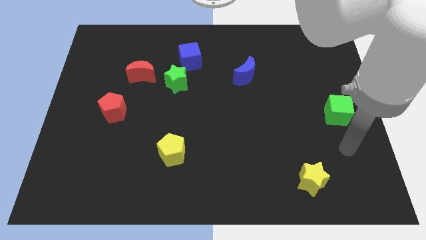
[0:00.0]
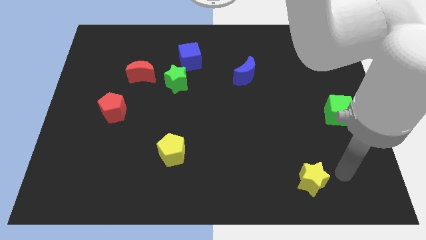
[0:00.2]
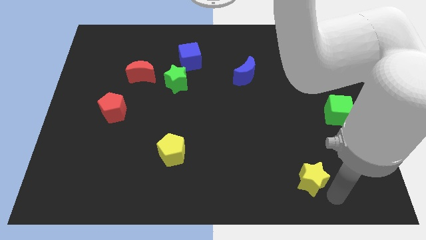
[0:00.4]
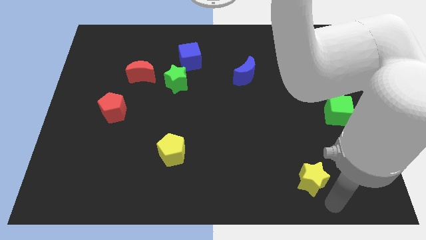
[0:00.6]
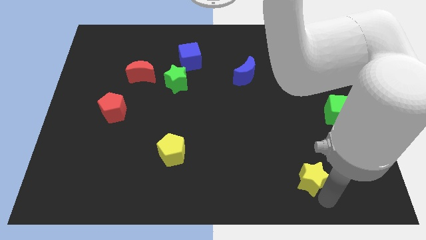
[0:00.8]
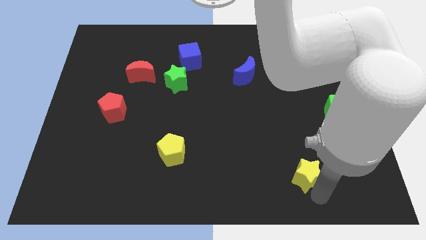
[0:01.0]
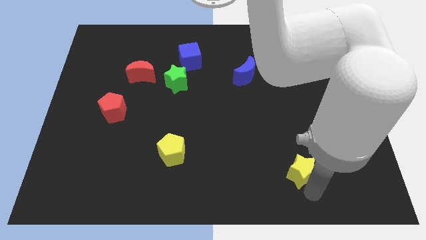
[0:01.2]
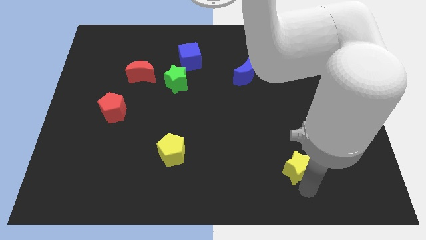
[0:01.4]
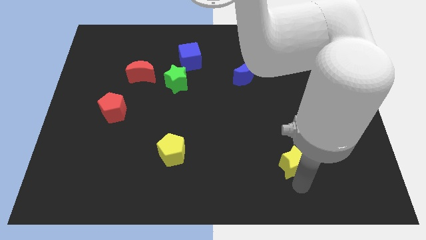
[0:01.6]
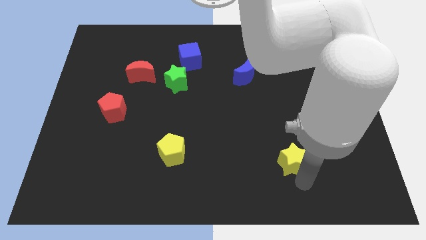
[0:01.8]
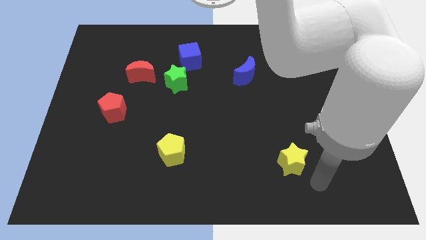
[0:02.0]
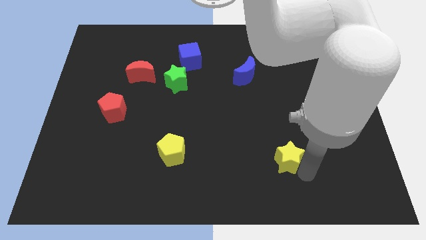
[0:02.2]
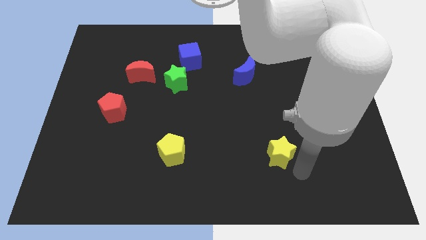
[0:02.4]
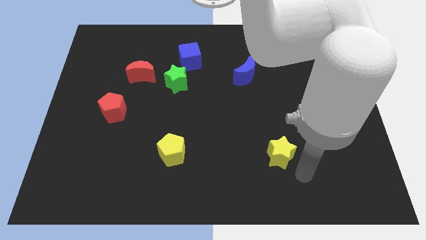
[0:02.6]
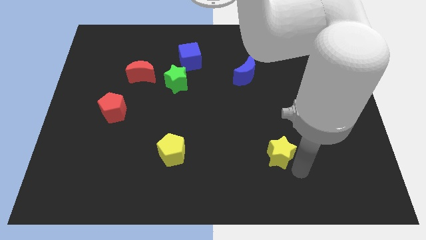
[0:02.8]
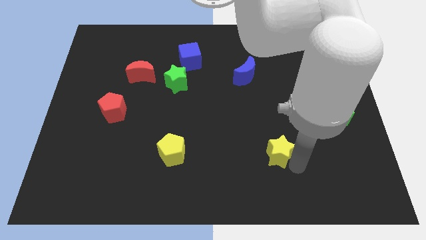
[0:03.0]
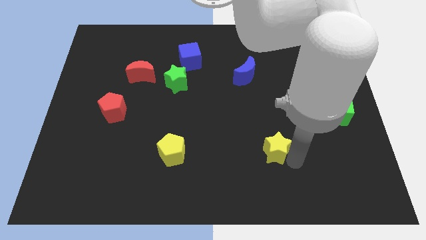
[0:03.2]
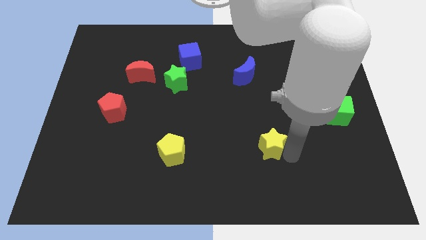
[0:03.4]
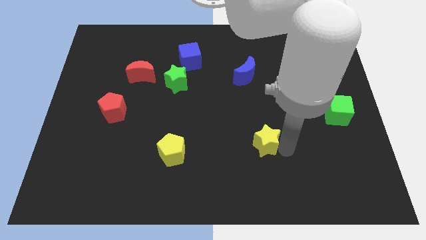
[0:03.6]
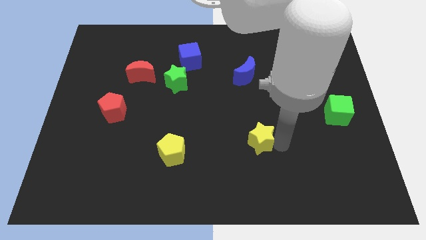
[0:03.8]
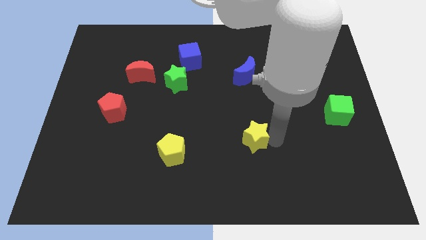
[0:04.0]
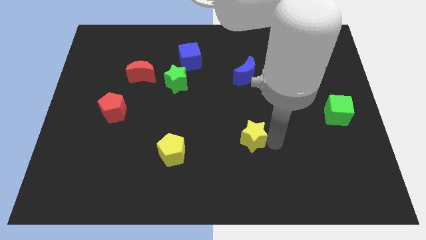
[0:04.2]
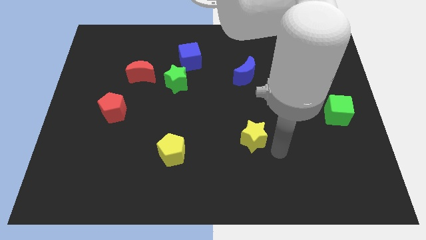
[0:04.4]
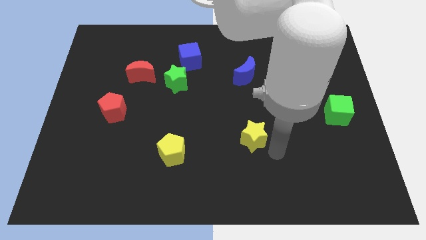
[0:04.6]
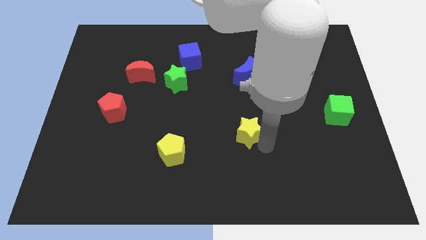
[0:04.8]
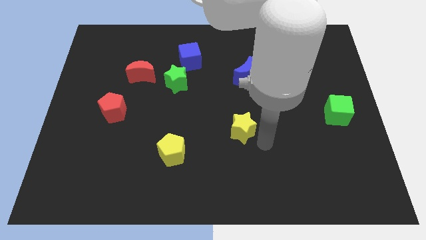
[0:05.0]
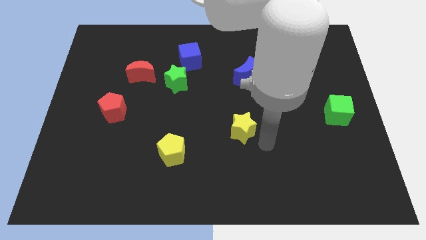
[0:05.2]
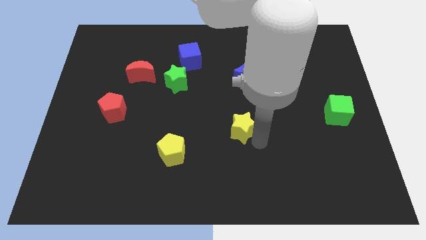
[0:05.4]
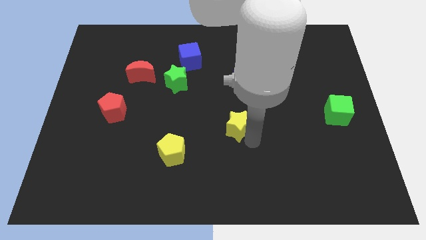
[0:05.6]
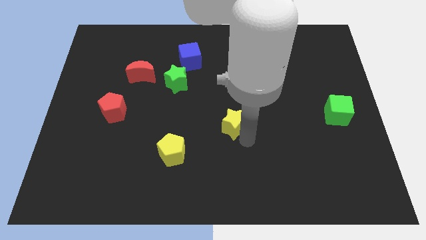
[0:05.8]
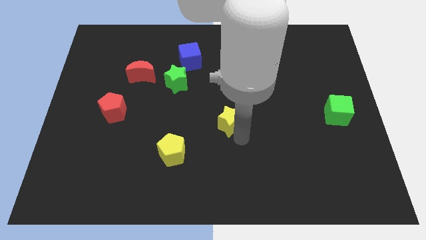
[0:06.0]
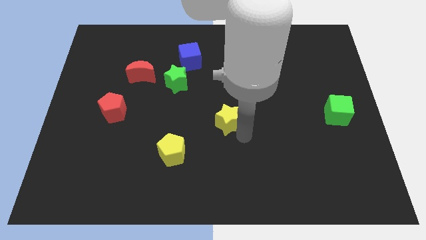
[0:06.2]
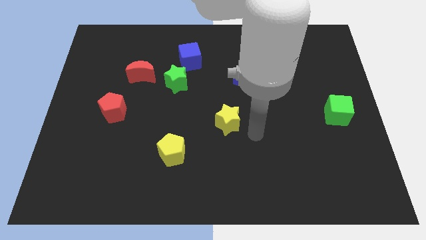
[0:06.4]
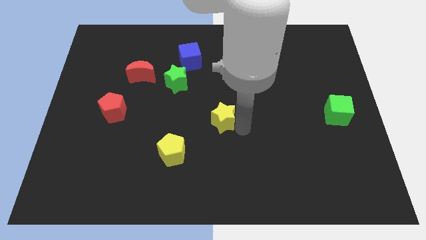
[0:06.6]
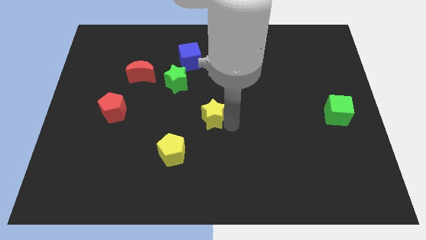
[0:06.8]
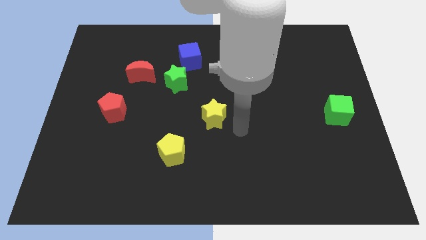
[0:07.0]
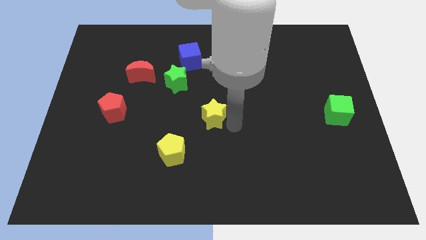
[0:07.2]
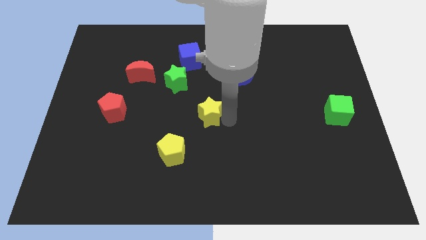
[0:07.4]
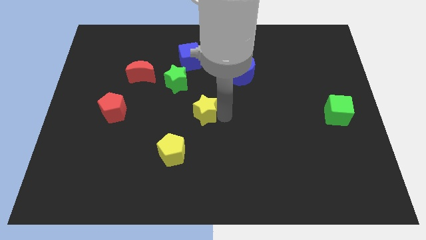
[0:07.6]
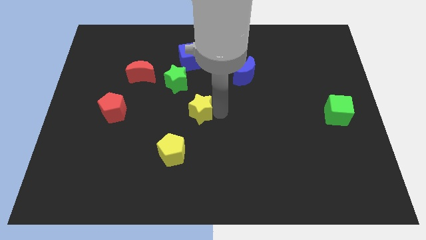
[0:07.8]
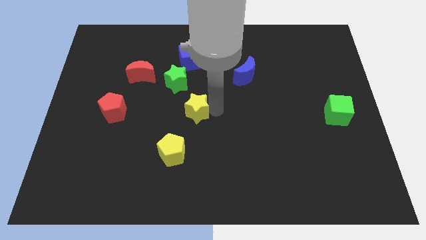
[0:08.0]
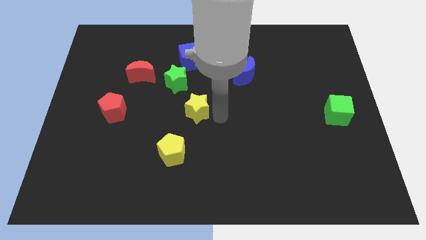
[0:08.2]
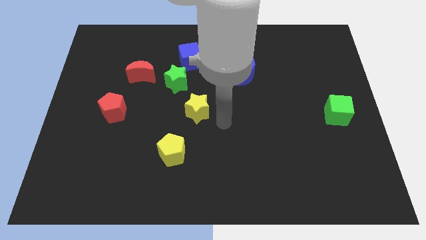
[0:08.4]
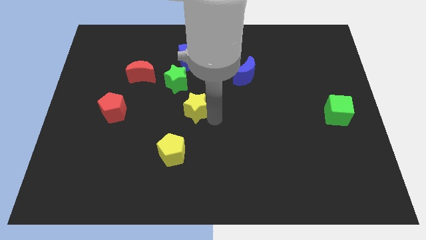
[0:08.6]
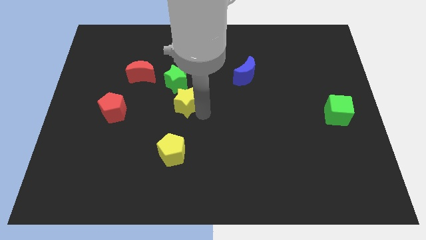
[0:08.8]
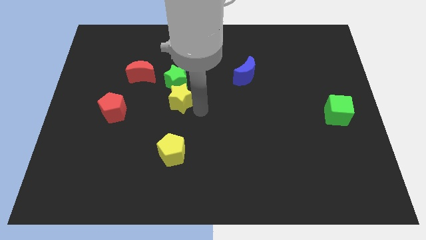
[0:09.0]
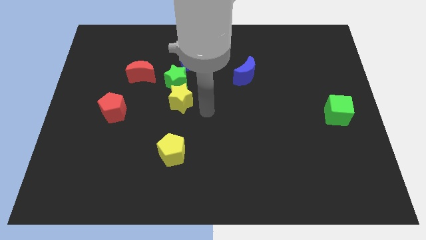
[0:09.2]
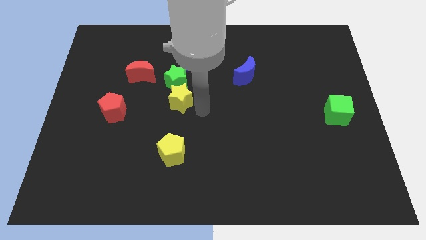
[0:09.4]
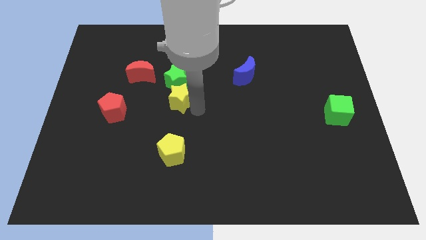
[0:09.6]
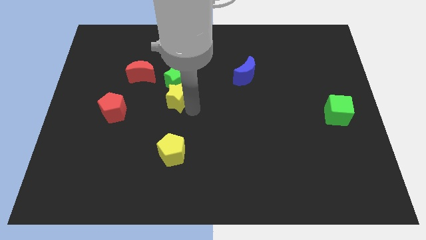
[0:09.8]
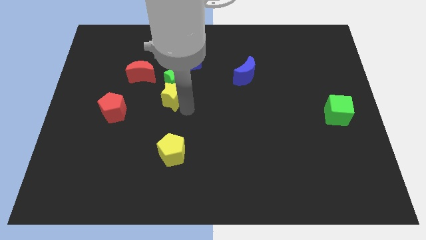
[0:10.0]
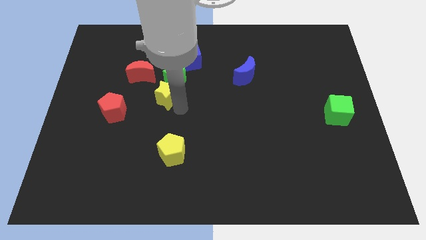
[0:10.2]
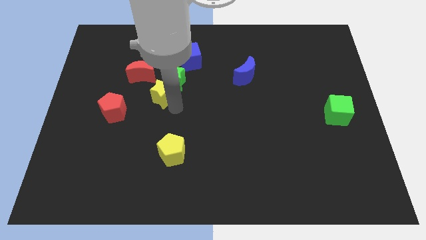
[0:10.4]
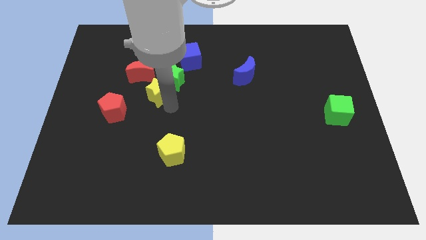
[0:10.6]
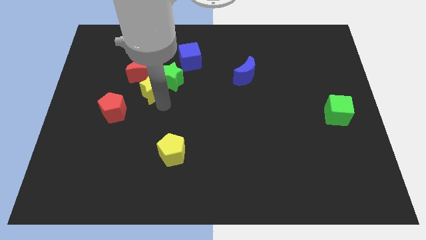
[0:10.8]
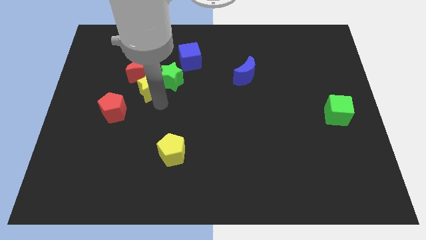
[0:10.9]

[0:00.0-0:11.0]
push the yellow star towards the red moon

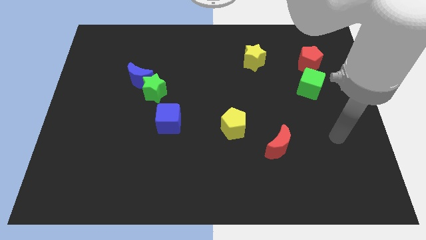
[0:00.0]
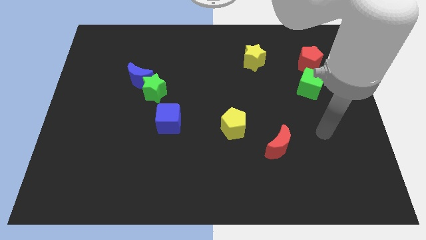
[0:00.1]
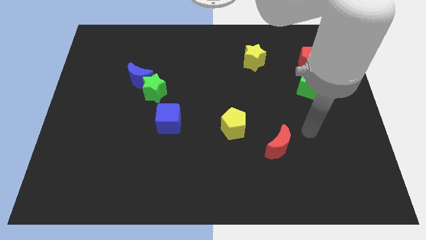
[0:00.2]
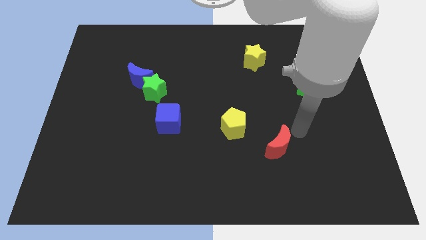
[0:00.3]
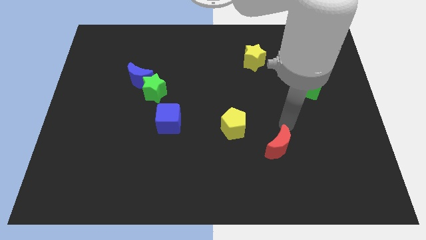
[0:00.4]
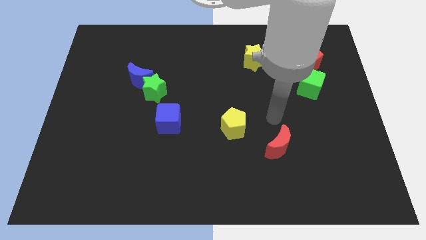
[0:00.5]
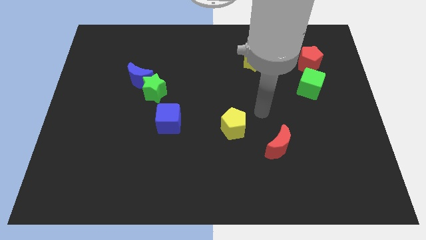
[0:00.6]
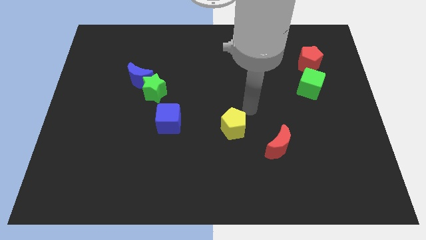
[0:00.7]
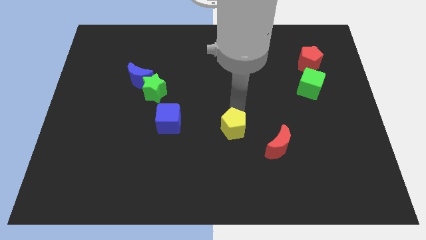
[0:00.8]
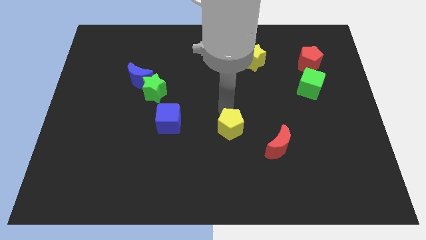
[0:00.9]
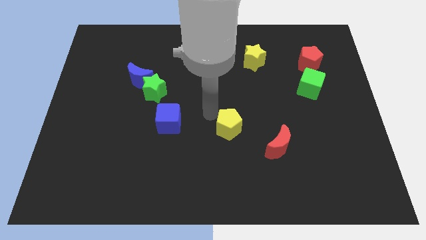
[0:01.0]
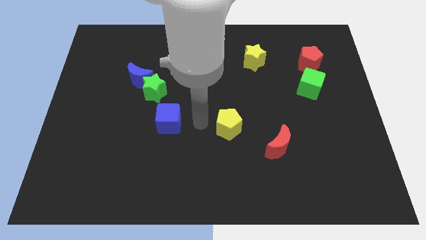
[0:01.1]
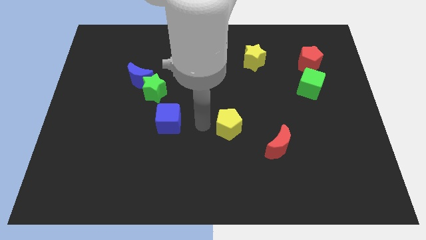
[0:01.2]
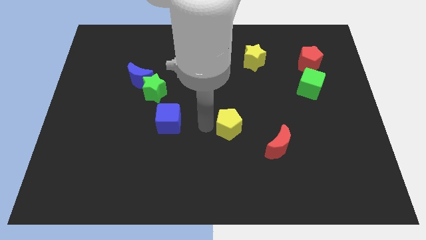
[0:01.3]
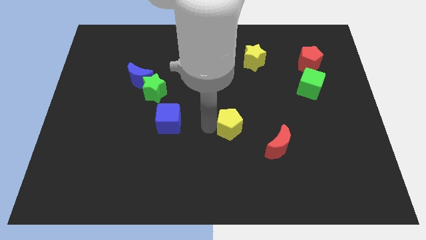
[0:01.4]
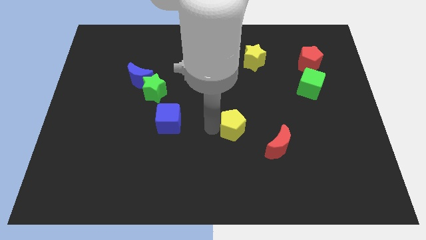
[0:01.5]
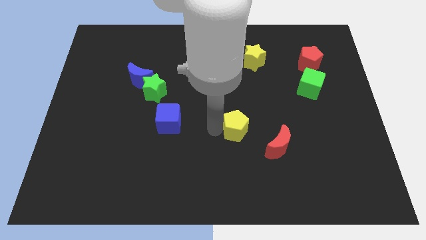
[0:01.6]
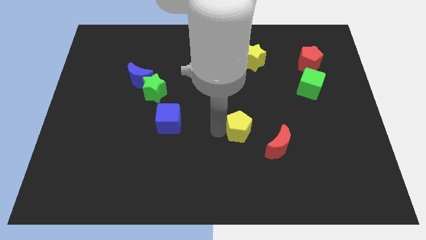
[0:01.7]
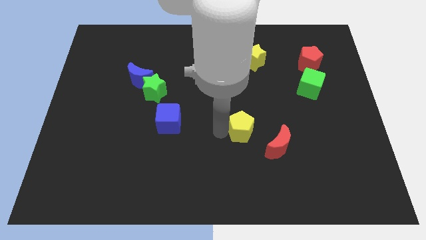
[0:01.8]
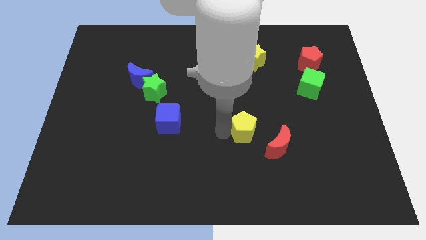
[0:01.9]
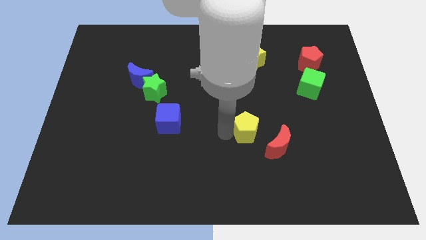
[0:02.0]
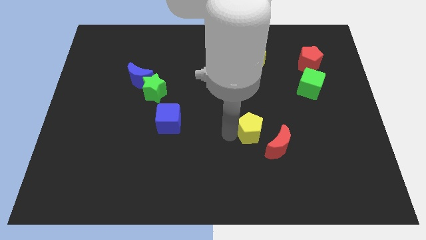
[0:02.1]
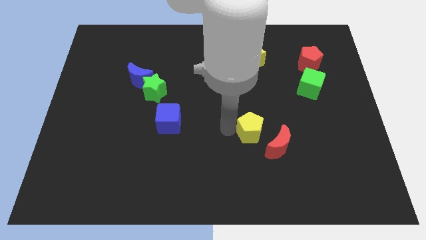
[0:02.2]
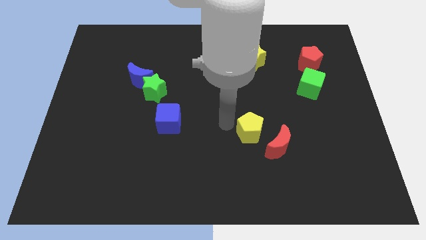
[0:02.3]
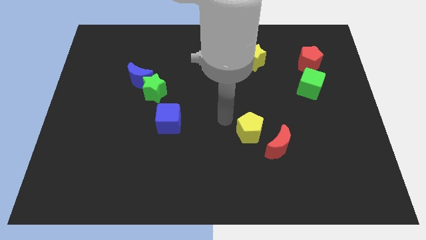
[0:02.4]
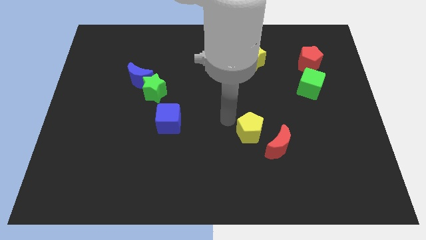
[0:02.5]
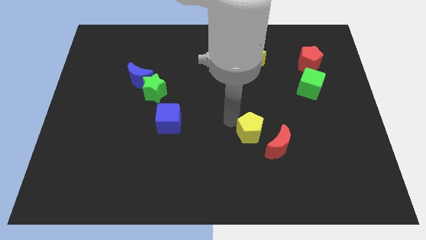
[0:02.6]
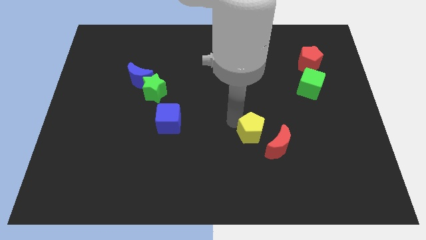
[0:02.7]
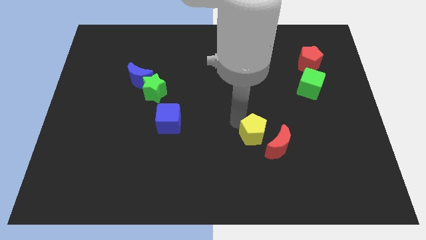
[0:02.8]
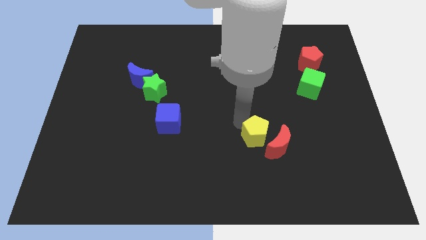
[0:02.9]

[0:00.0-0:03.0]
move the yellow pentagon to the red moon
